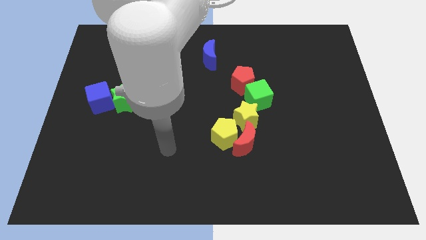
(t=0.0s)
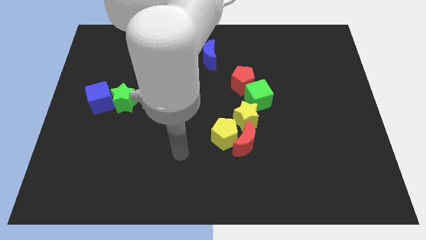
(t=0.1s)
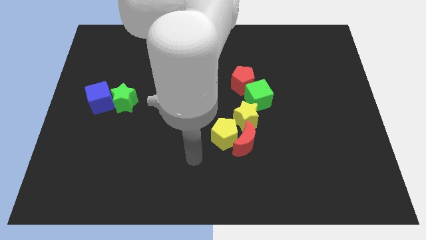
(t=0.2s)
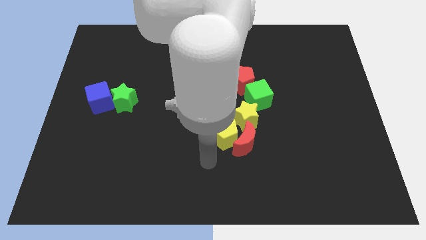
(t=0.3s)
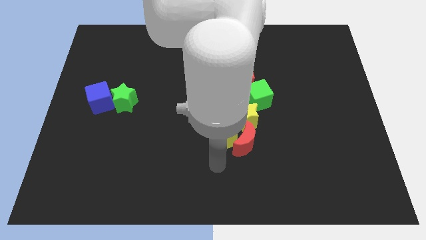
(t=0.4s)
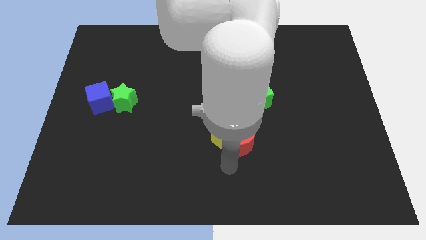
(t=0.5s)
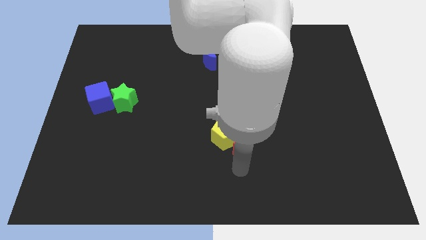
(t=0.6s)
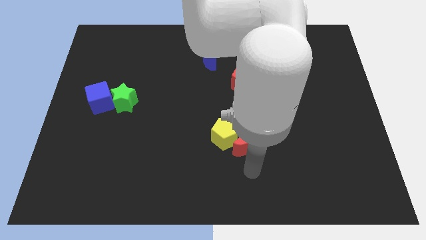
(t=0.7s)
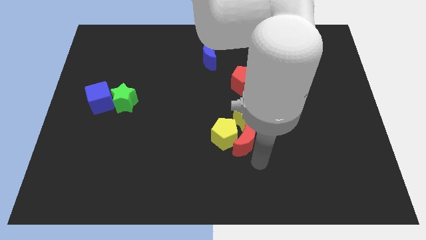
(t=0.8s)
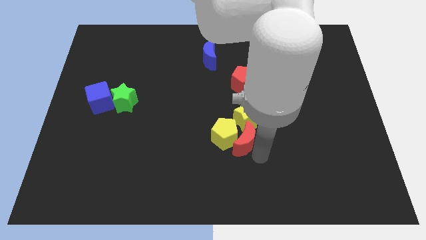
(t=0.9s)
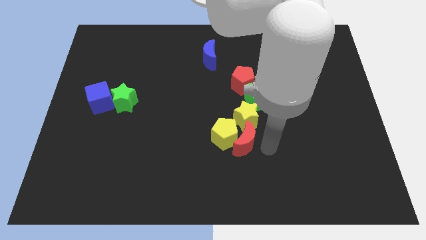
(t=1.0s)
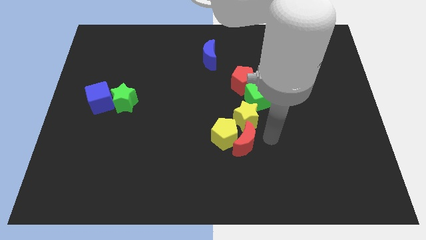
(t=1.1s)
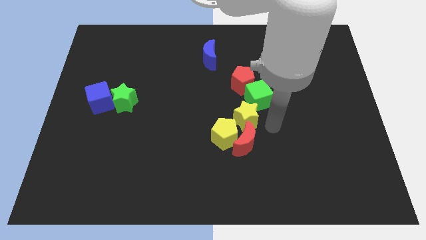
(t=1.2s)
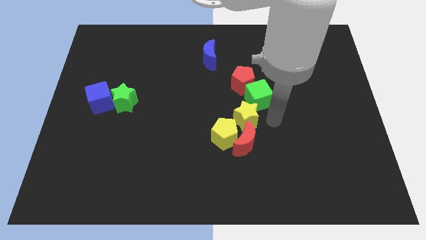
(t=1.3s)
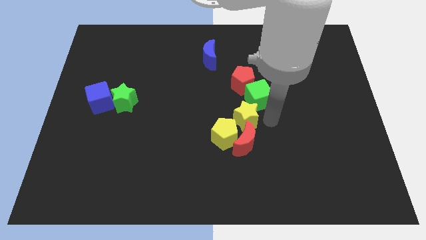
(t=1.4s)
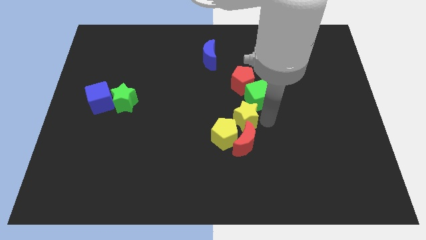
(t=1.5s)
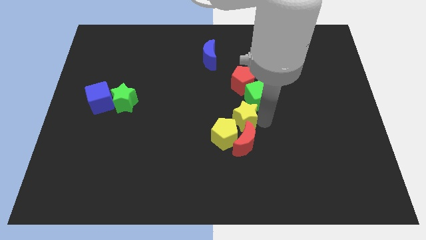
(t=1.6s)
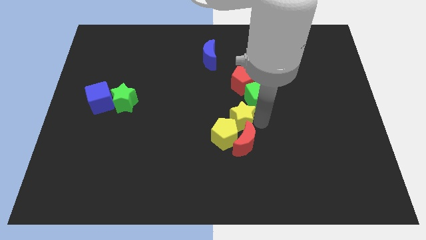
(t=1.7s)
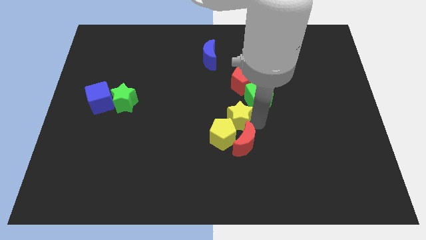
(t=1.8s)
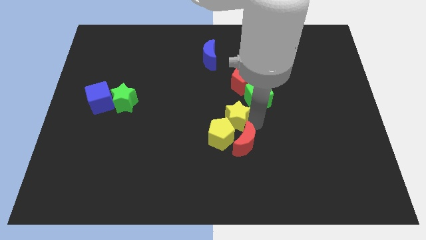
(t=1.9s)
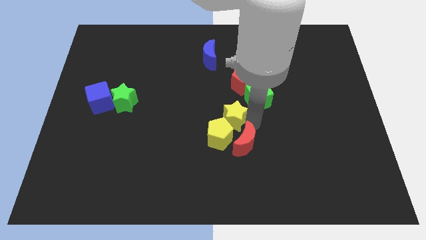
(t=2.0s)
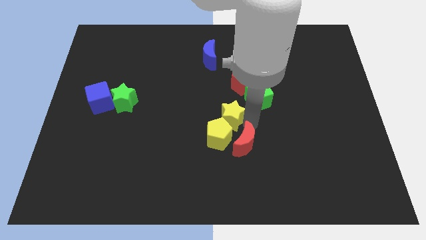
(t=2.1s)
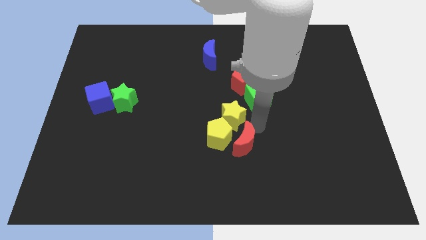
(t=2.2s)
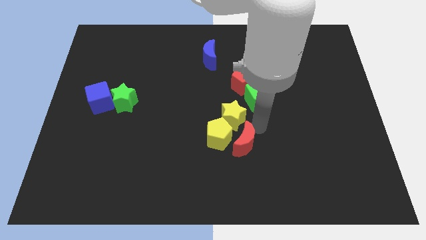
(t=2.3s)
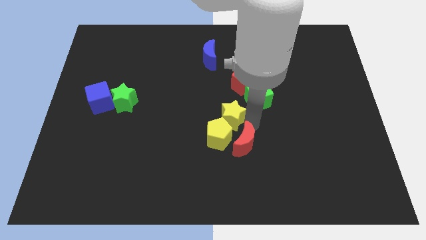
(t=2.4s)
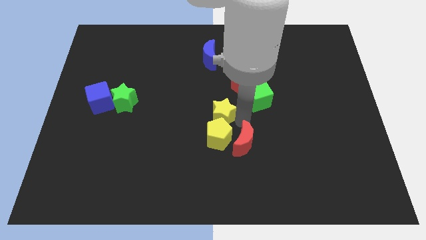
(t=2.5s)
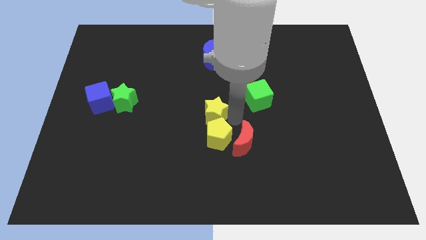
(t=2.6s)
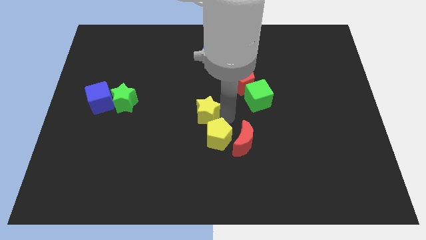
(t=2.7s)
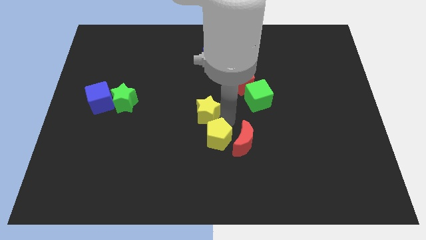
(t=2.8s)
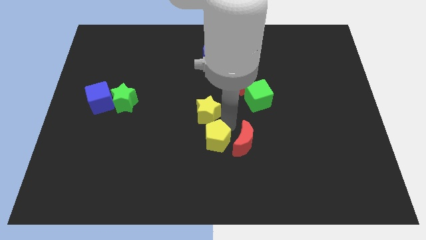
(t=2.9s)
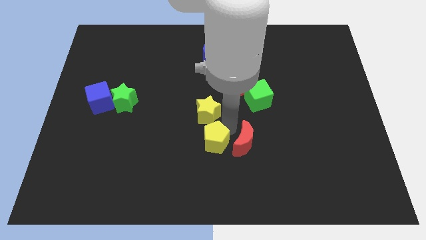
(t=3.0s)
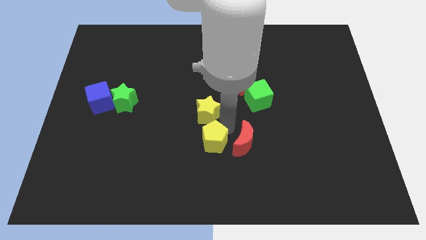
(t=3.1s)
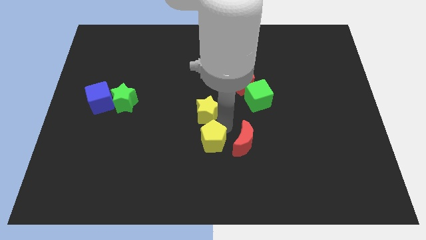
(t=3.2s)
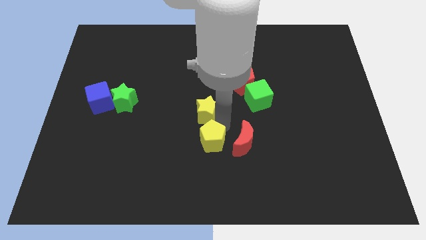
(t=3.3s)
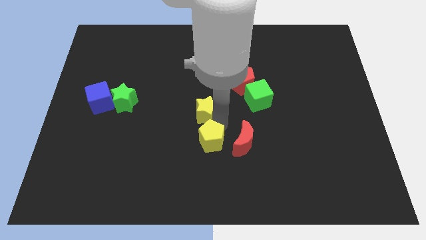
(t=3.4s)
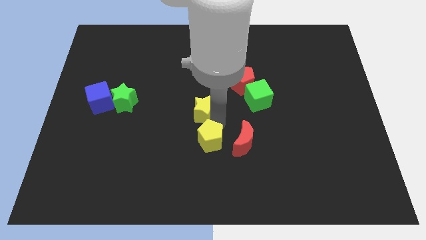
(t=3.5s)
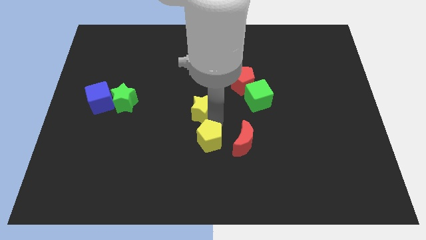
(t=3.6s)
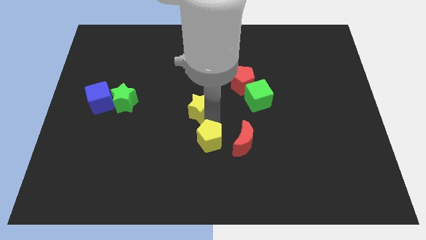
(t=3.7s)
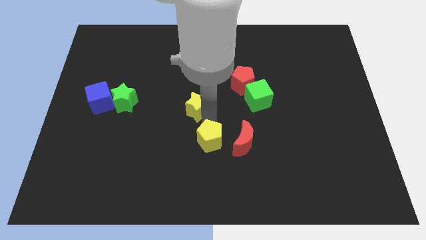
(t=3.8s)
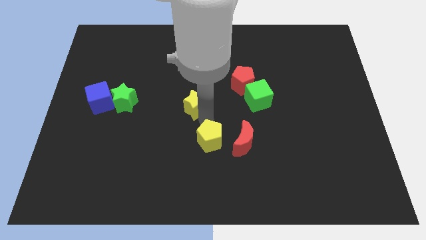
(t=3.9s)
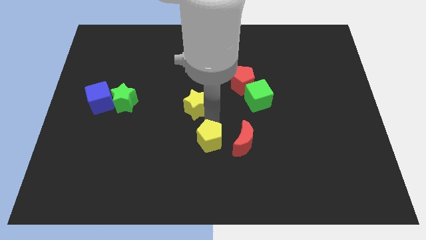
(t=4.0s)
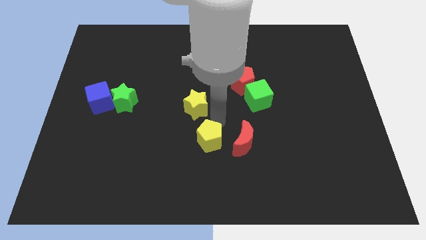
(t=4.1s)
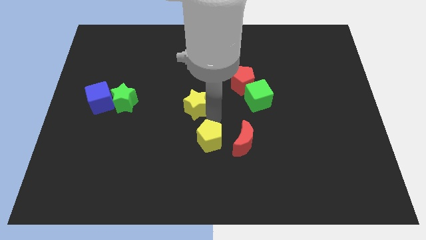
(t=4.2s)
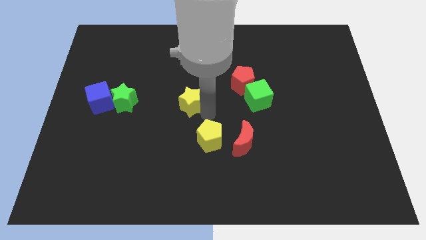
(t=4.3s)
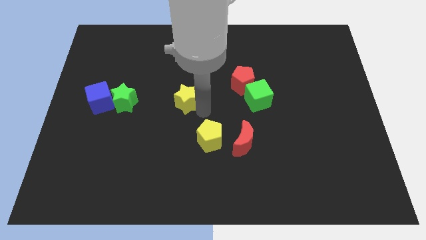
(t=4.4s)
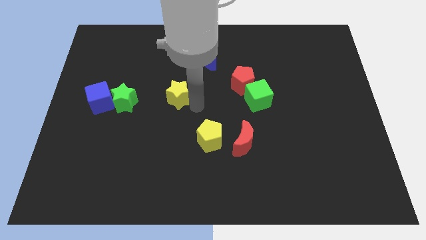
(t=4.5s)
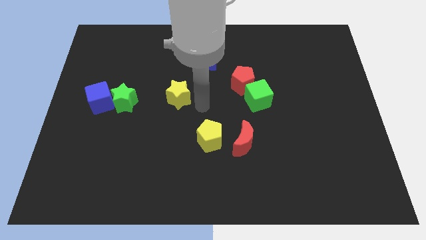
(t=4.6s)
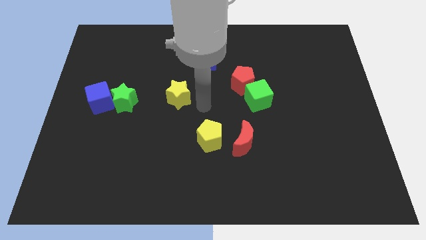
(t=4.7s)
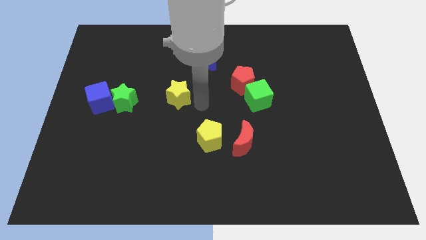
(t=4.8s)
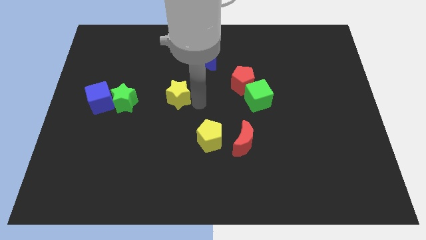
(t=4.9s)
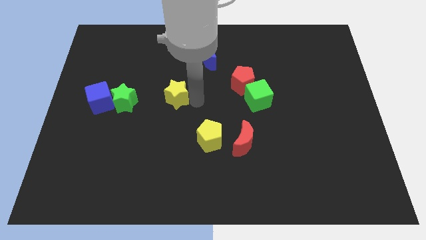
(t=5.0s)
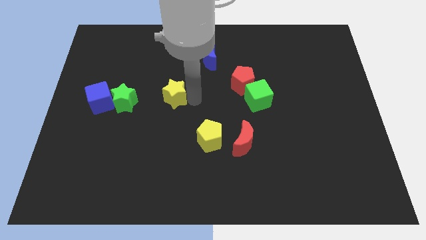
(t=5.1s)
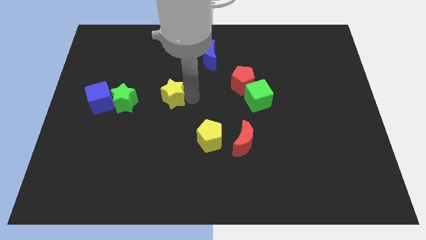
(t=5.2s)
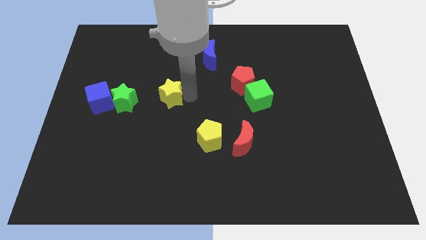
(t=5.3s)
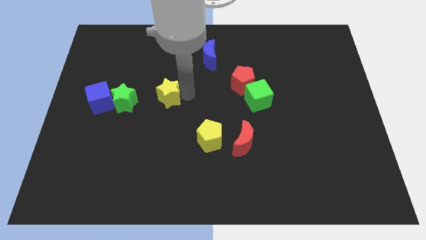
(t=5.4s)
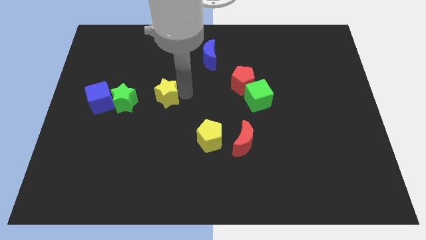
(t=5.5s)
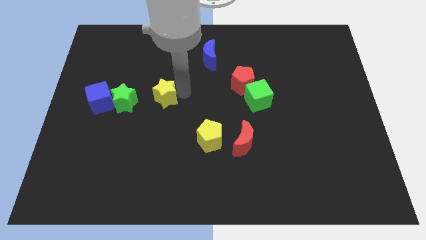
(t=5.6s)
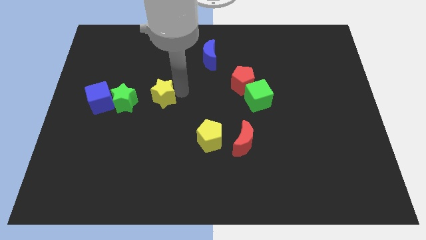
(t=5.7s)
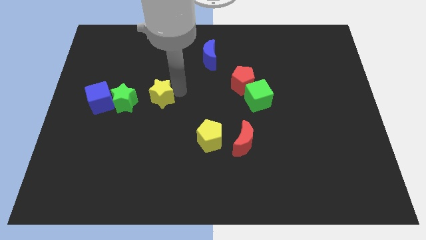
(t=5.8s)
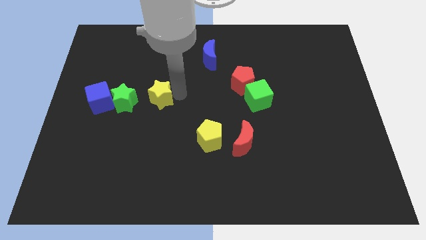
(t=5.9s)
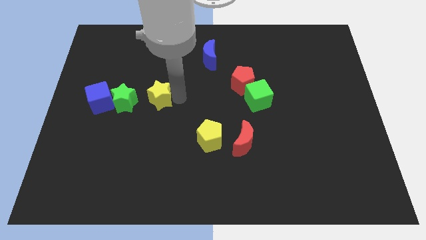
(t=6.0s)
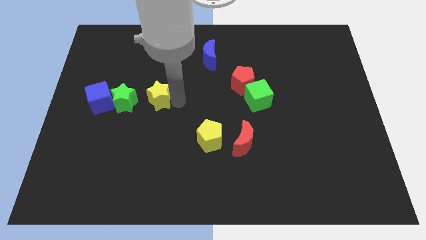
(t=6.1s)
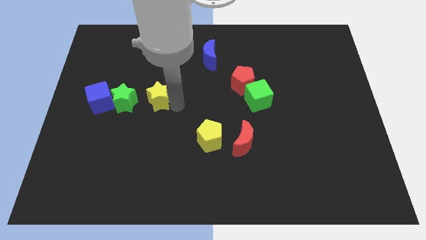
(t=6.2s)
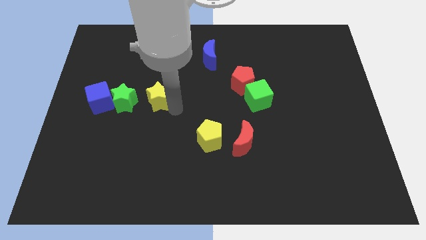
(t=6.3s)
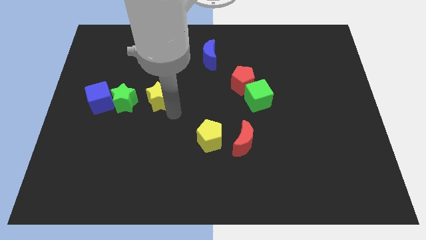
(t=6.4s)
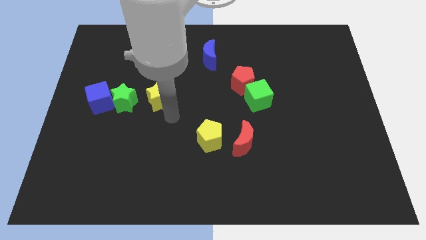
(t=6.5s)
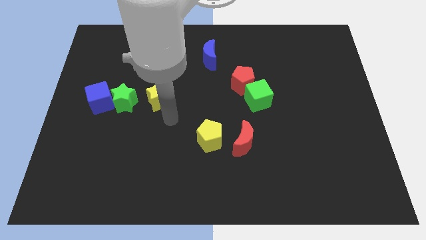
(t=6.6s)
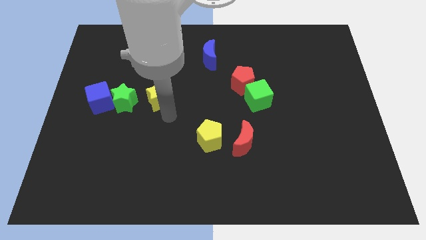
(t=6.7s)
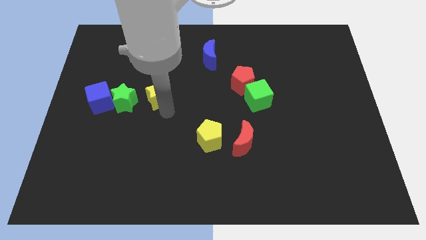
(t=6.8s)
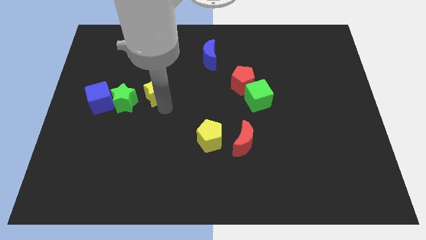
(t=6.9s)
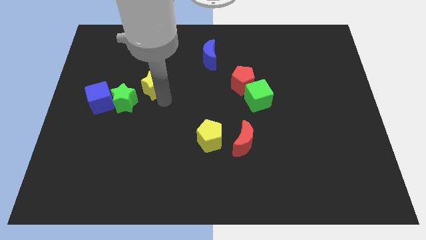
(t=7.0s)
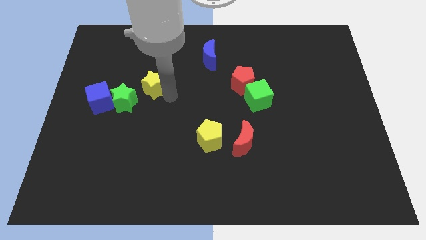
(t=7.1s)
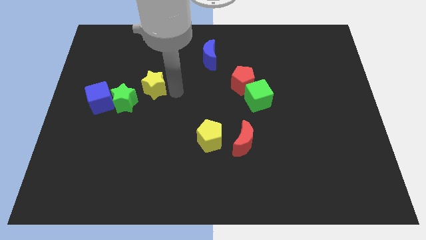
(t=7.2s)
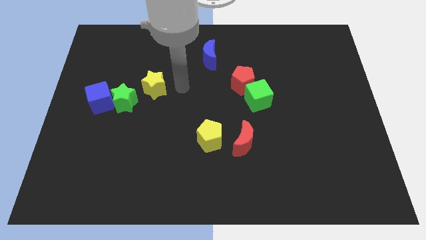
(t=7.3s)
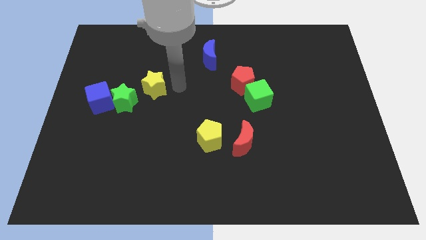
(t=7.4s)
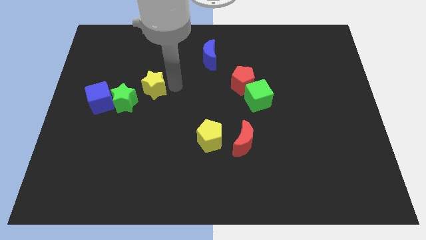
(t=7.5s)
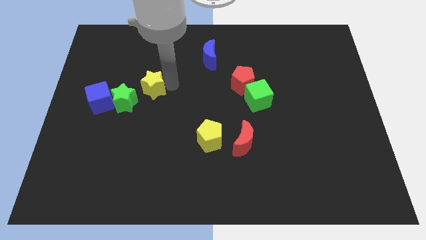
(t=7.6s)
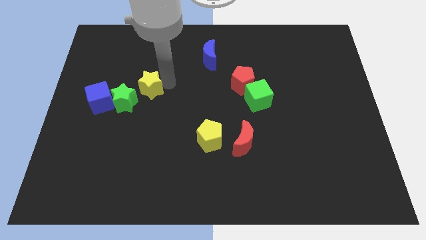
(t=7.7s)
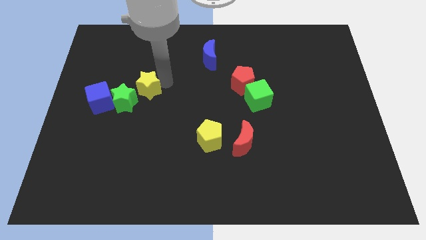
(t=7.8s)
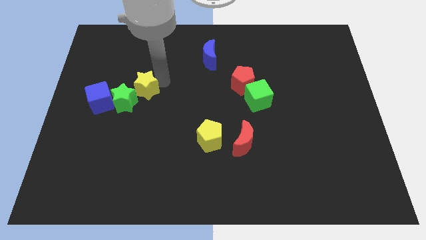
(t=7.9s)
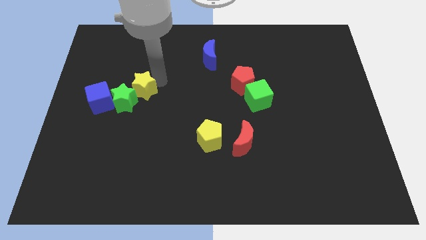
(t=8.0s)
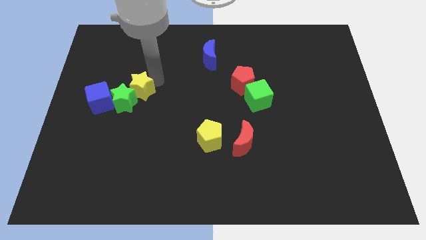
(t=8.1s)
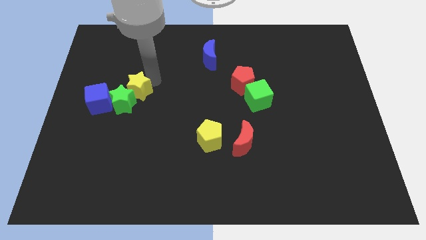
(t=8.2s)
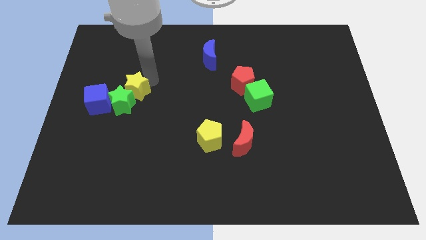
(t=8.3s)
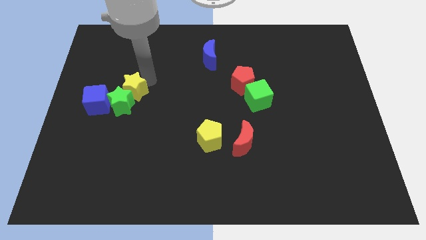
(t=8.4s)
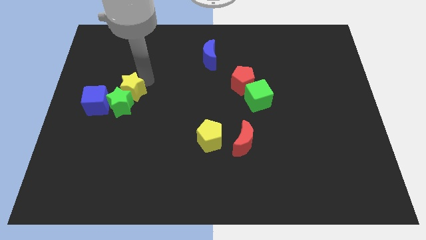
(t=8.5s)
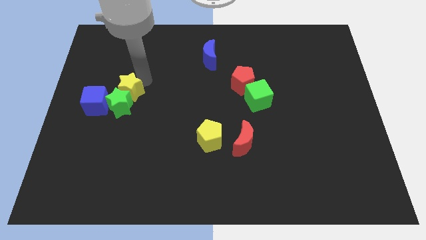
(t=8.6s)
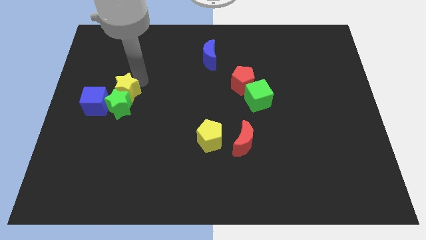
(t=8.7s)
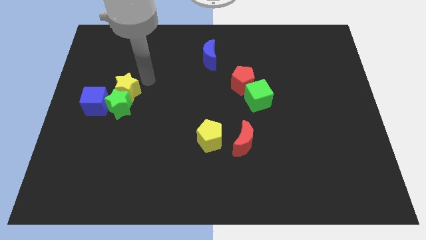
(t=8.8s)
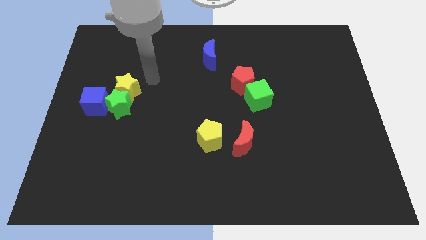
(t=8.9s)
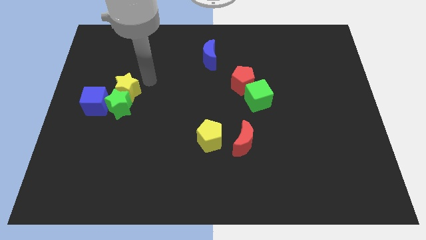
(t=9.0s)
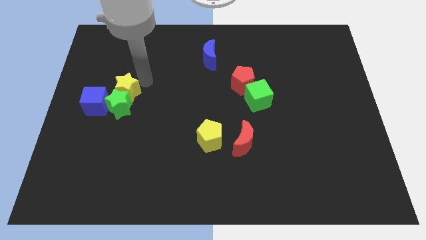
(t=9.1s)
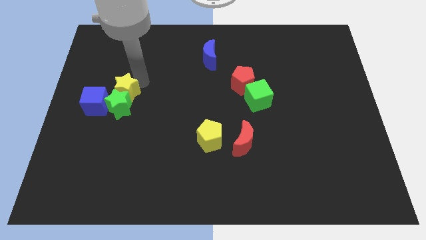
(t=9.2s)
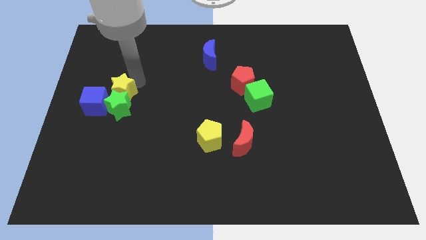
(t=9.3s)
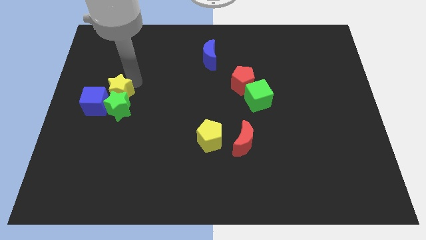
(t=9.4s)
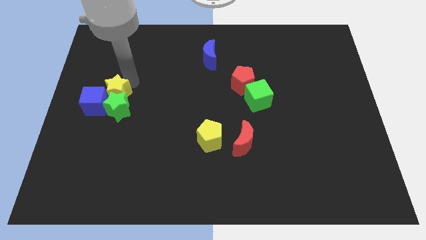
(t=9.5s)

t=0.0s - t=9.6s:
put the yellow star towards the blue cube
